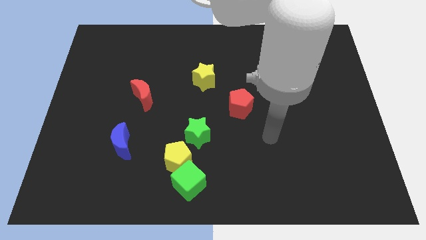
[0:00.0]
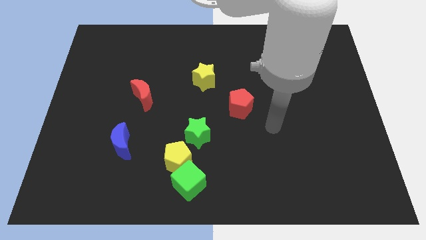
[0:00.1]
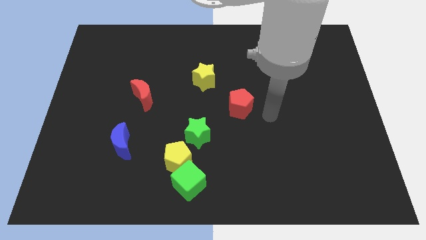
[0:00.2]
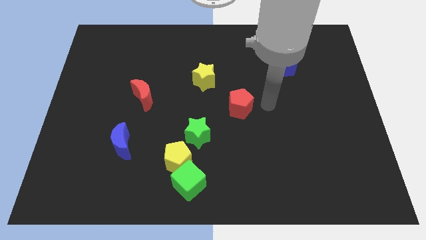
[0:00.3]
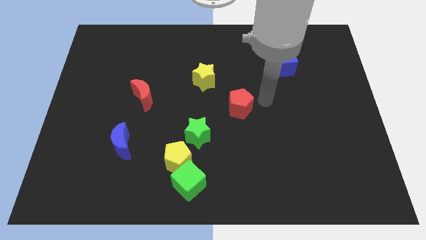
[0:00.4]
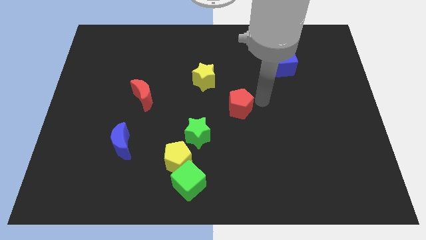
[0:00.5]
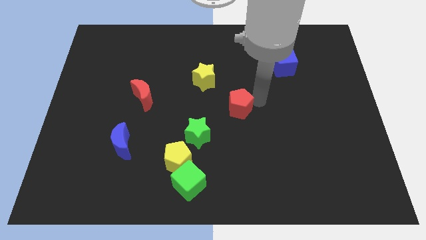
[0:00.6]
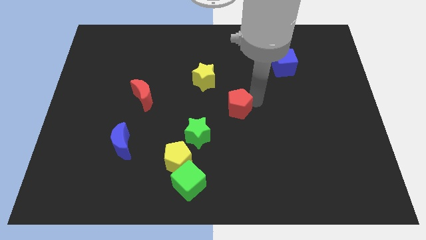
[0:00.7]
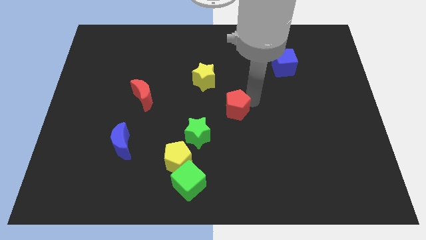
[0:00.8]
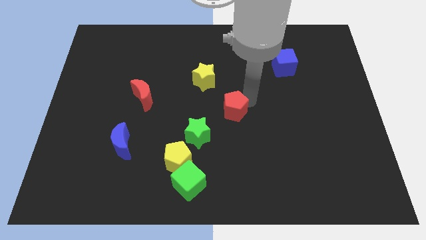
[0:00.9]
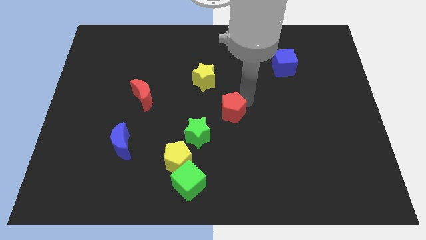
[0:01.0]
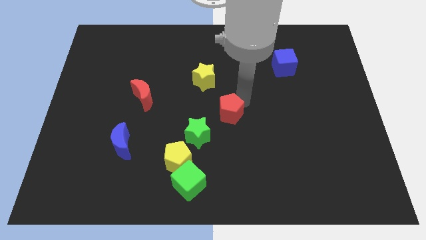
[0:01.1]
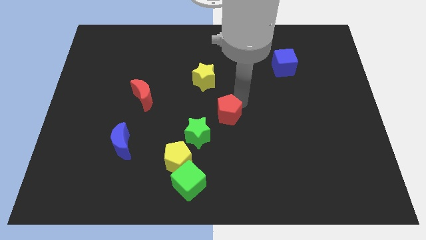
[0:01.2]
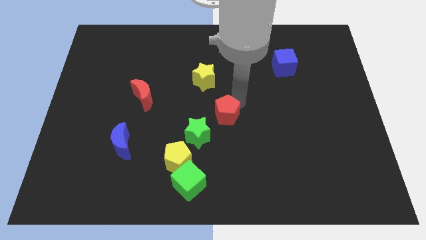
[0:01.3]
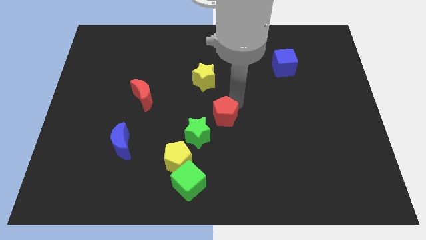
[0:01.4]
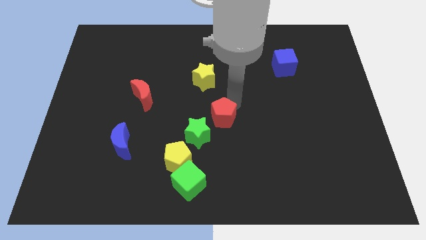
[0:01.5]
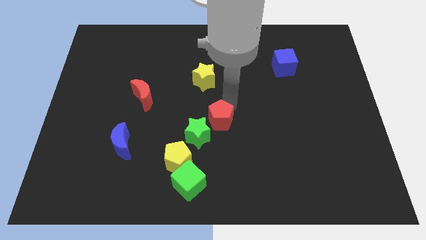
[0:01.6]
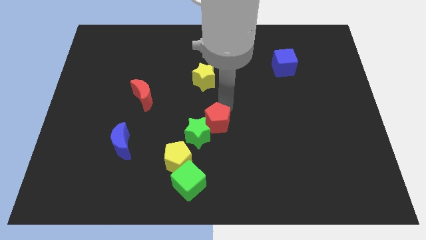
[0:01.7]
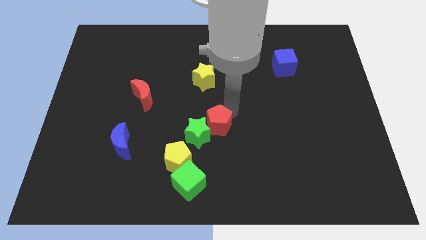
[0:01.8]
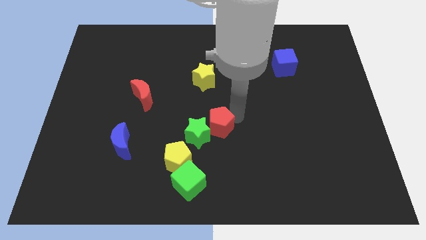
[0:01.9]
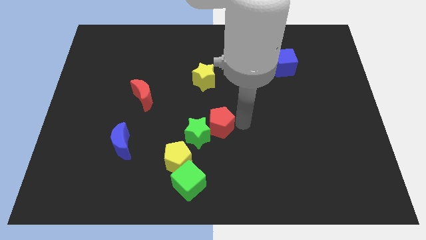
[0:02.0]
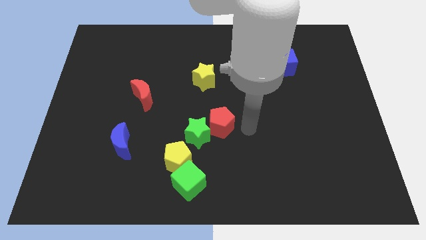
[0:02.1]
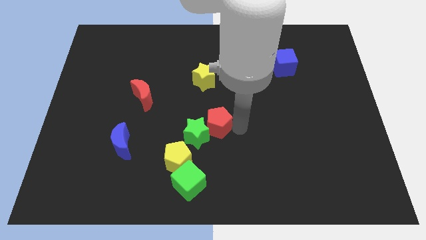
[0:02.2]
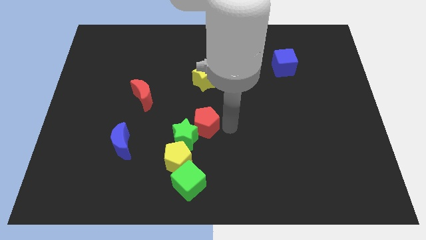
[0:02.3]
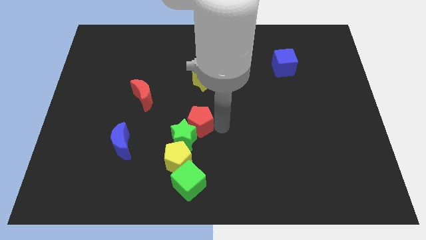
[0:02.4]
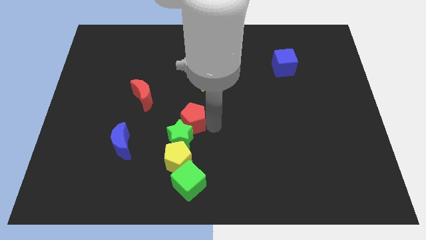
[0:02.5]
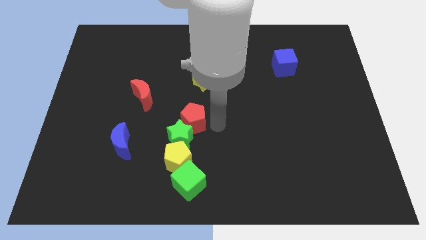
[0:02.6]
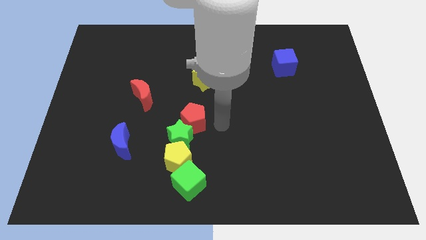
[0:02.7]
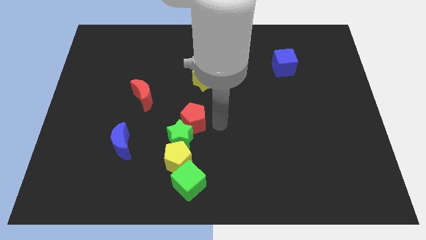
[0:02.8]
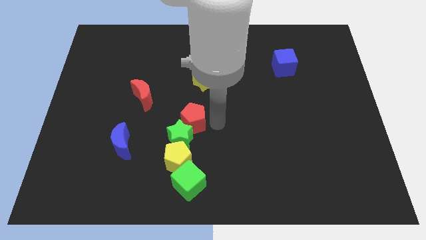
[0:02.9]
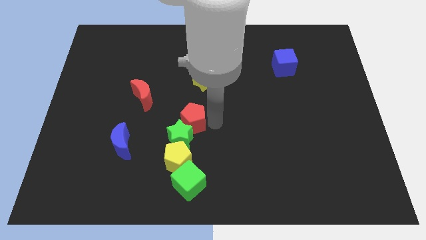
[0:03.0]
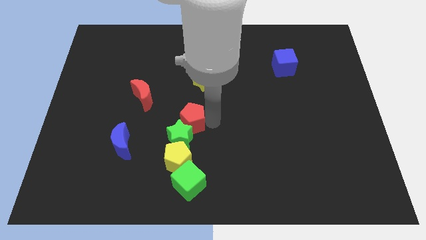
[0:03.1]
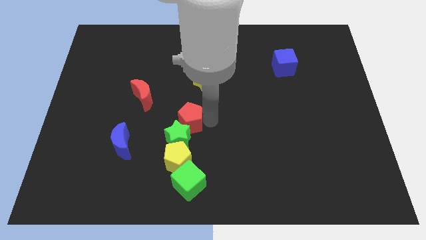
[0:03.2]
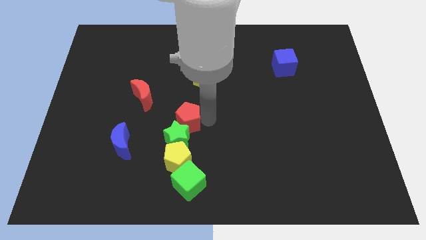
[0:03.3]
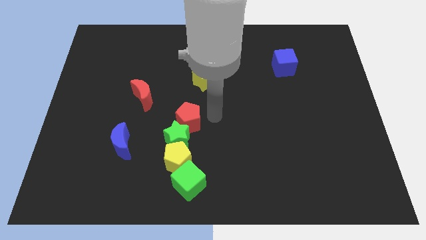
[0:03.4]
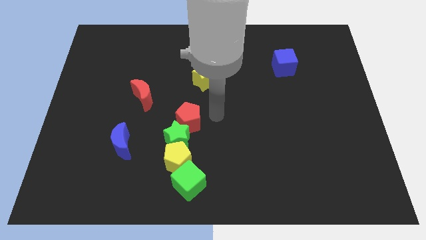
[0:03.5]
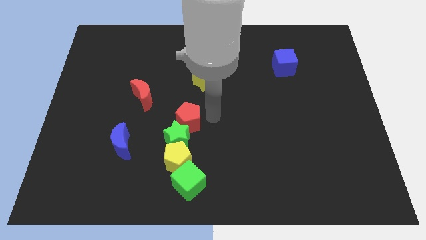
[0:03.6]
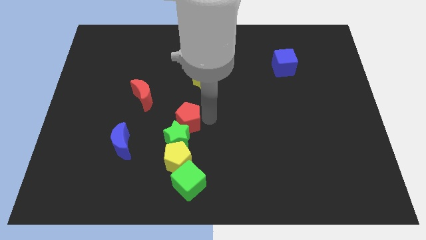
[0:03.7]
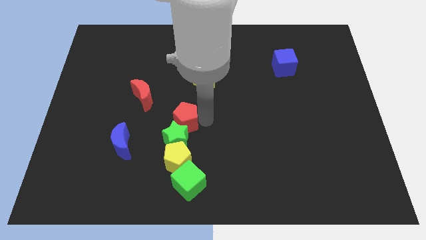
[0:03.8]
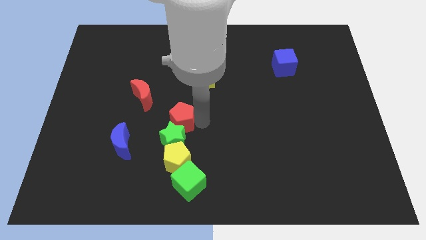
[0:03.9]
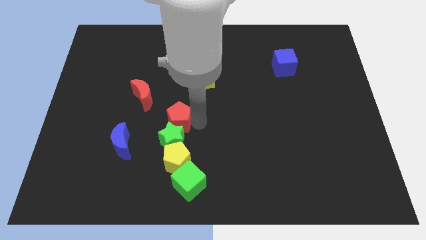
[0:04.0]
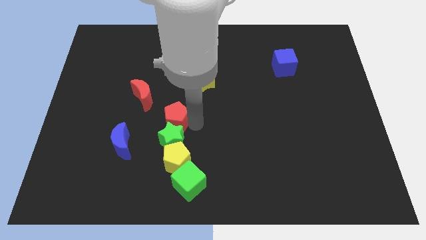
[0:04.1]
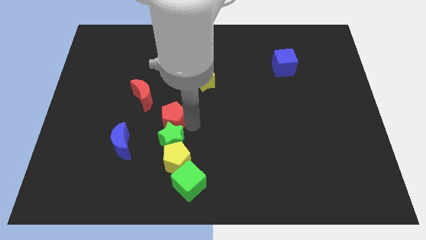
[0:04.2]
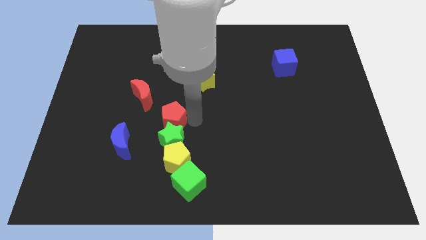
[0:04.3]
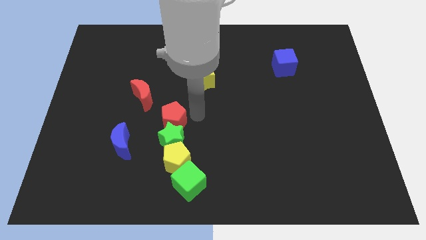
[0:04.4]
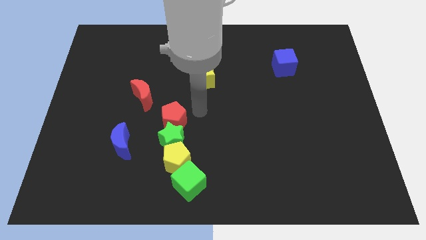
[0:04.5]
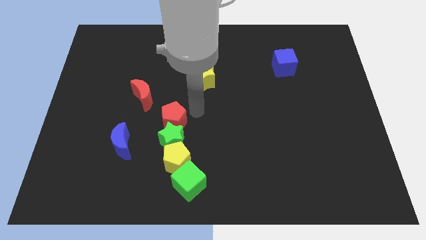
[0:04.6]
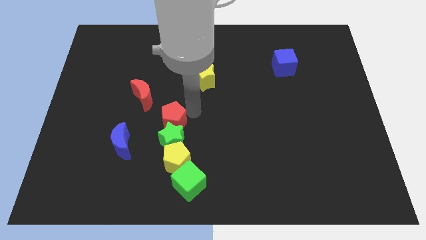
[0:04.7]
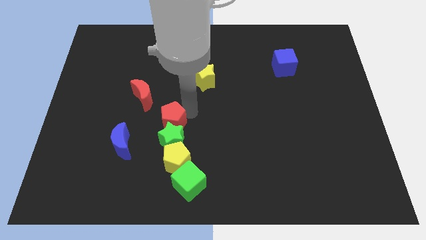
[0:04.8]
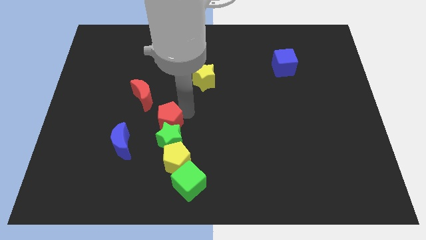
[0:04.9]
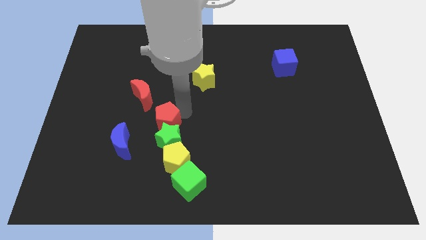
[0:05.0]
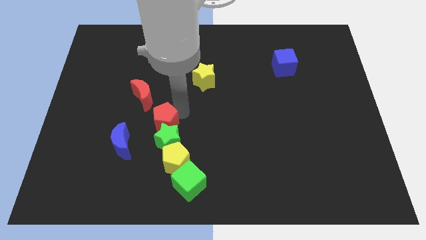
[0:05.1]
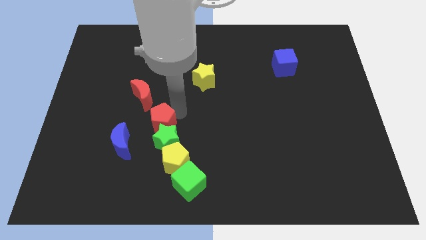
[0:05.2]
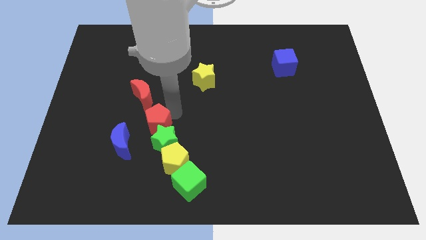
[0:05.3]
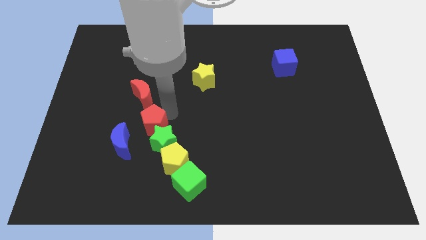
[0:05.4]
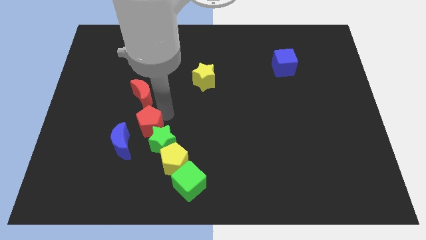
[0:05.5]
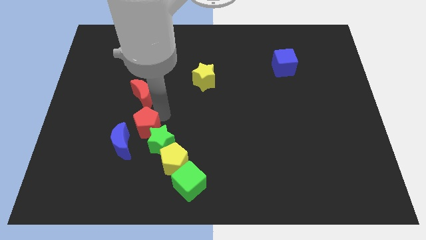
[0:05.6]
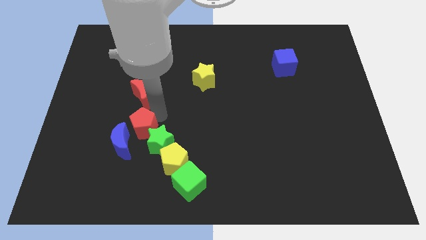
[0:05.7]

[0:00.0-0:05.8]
push the red pentagon to the blue moon

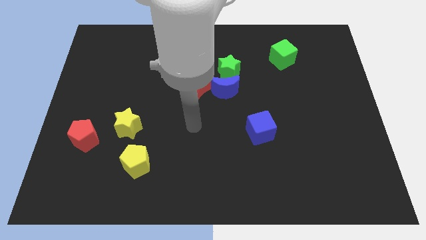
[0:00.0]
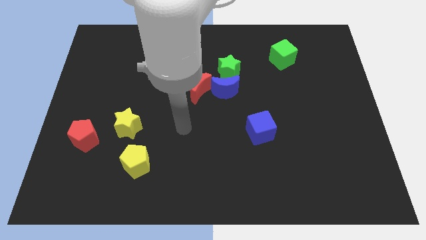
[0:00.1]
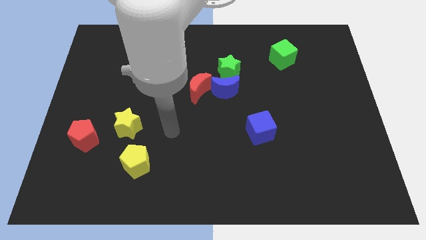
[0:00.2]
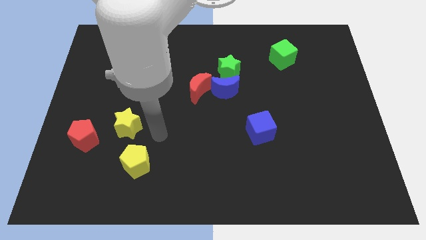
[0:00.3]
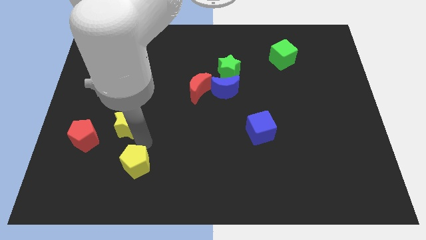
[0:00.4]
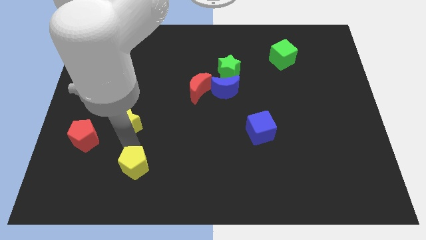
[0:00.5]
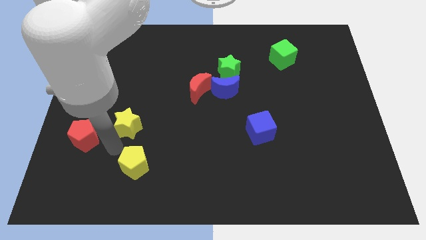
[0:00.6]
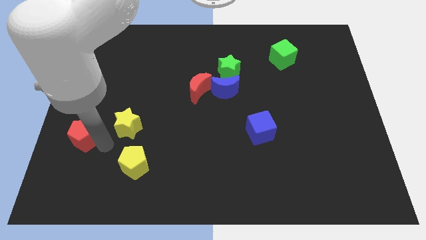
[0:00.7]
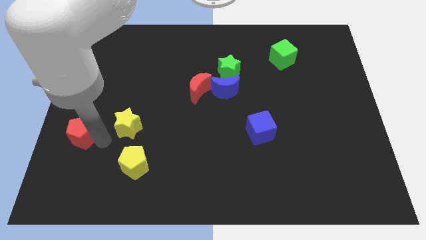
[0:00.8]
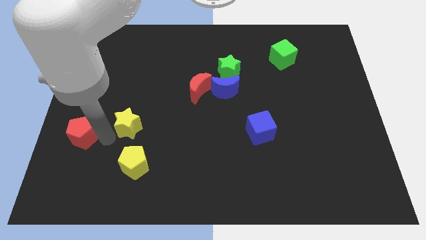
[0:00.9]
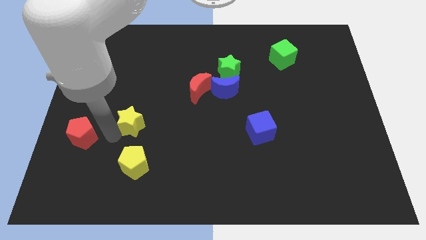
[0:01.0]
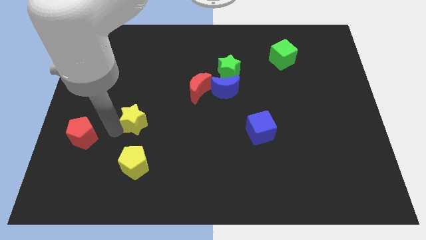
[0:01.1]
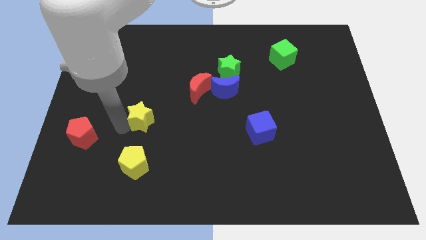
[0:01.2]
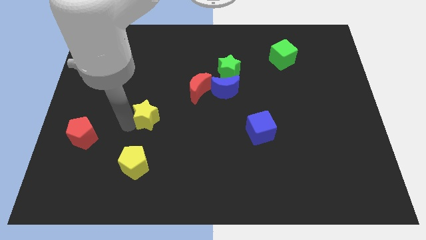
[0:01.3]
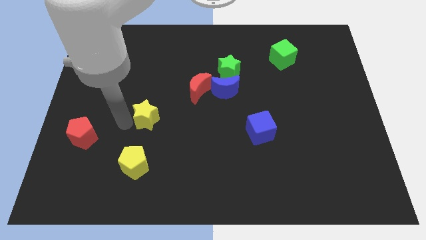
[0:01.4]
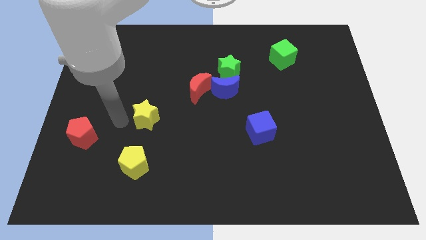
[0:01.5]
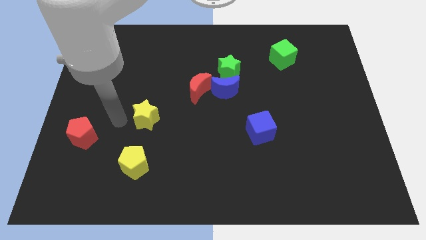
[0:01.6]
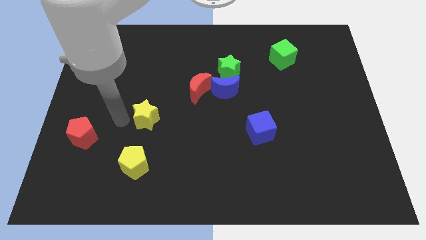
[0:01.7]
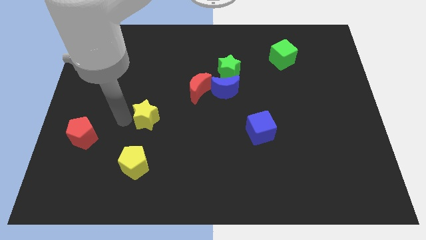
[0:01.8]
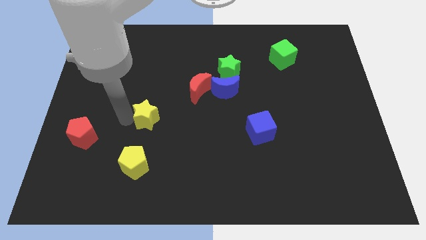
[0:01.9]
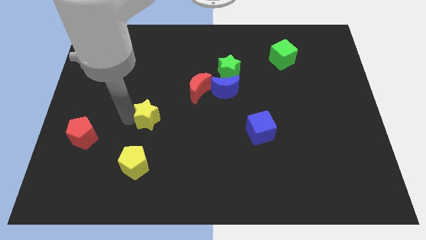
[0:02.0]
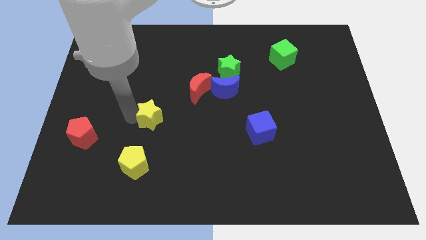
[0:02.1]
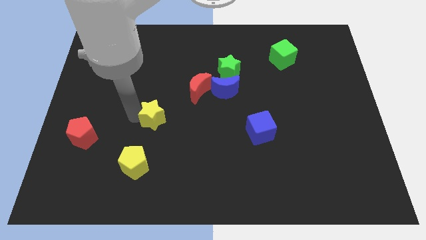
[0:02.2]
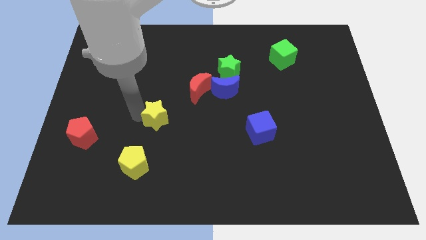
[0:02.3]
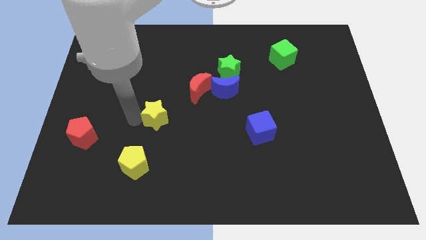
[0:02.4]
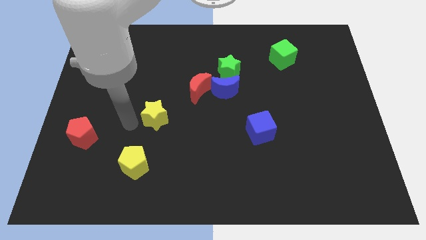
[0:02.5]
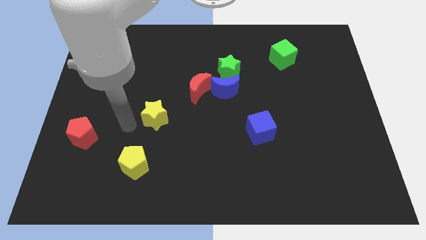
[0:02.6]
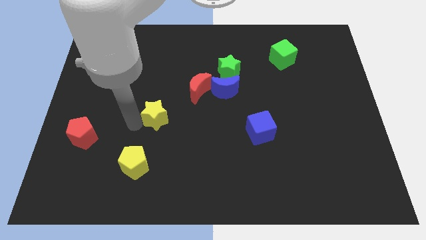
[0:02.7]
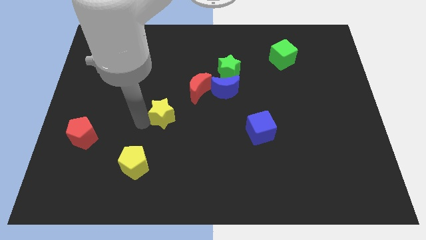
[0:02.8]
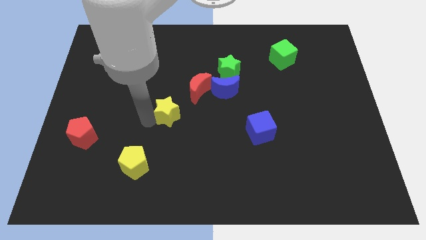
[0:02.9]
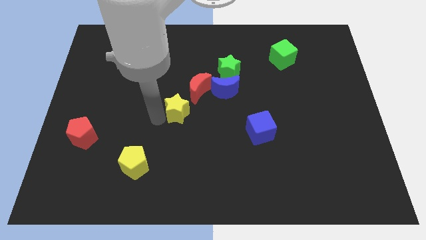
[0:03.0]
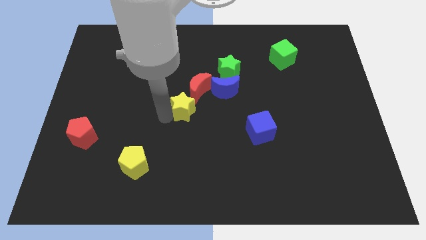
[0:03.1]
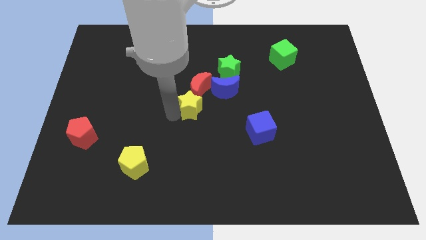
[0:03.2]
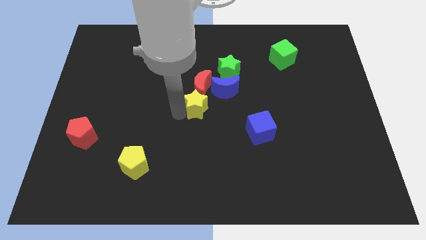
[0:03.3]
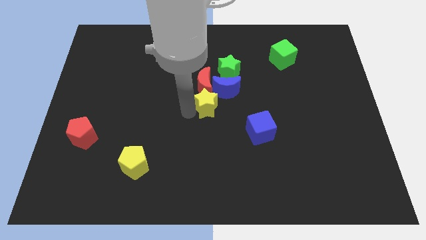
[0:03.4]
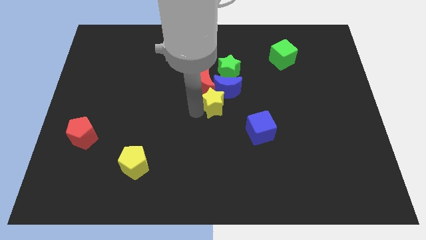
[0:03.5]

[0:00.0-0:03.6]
slide the yellow star next to the blue moon
